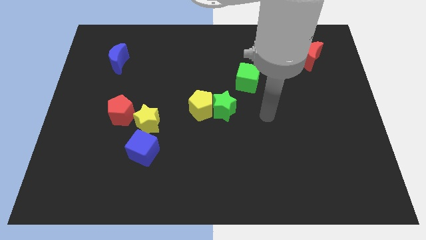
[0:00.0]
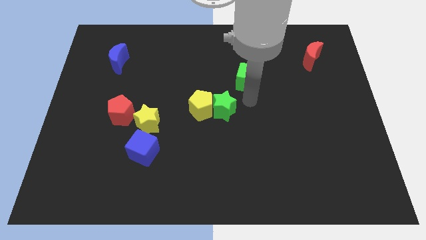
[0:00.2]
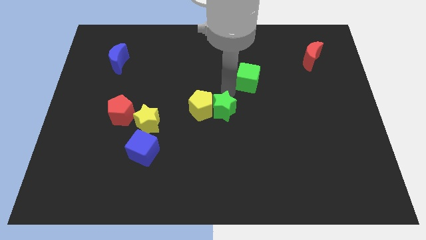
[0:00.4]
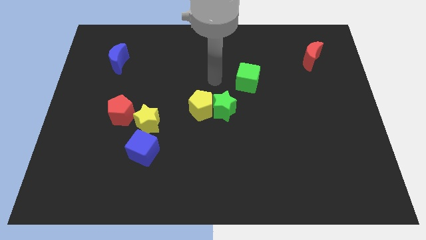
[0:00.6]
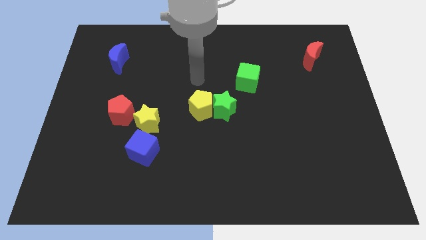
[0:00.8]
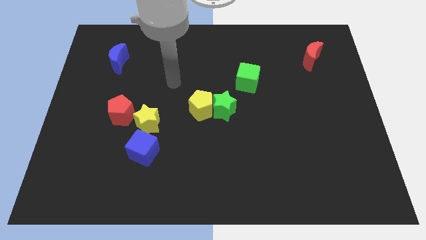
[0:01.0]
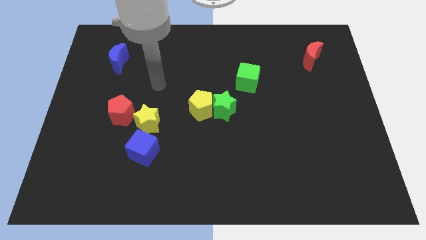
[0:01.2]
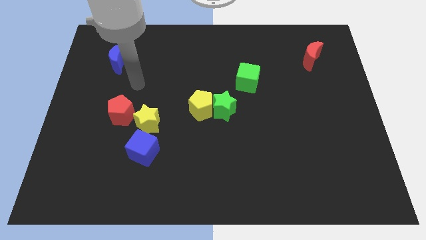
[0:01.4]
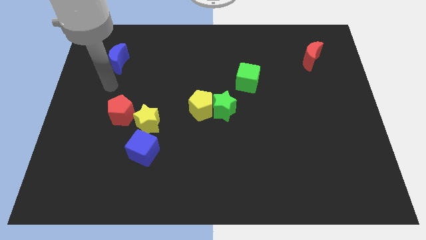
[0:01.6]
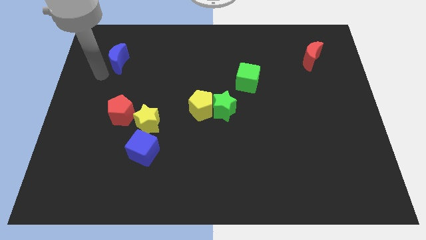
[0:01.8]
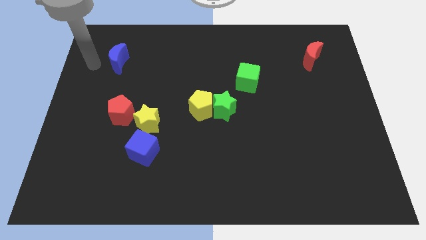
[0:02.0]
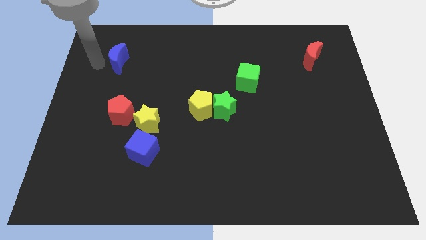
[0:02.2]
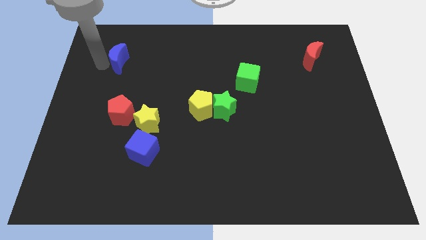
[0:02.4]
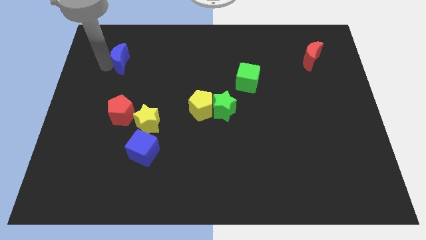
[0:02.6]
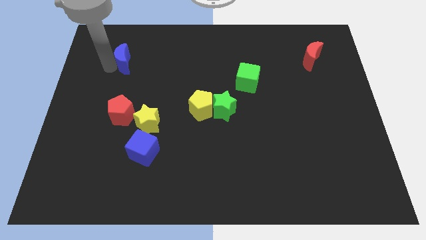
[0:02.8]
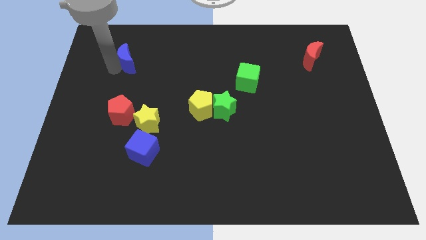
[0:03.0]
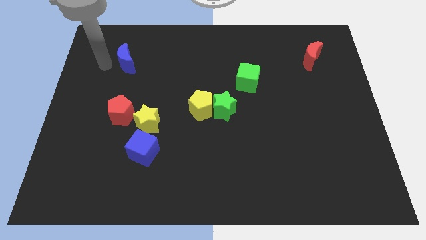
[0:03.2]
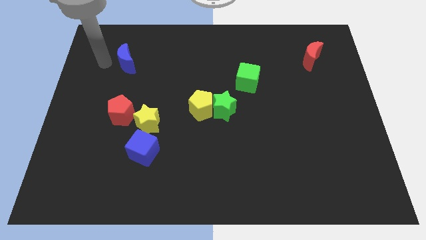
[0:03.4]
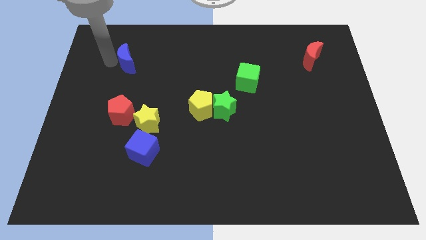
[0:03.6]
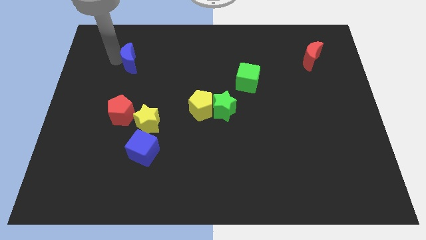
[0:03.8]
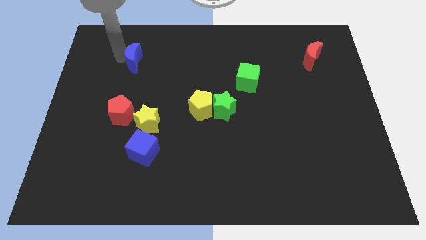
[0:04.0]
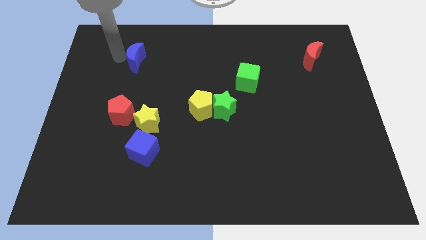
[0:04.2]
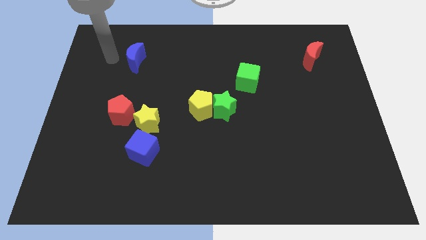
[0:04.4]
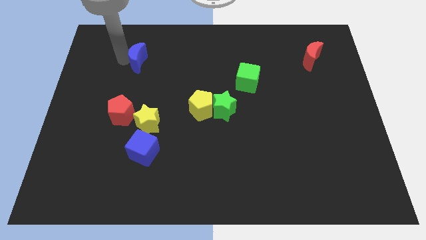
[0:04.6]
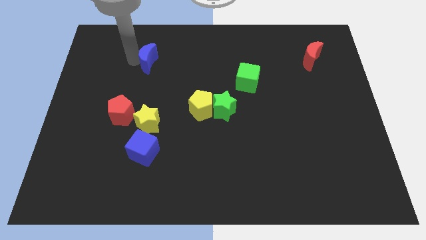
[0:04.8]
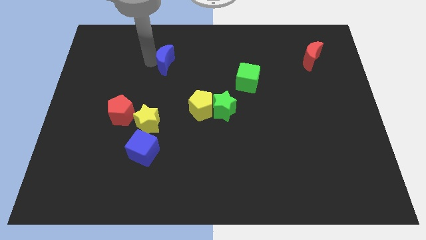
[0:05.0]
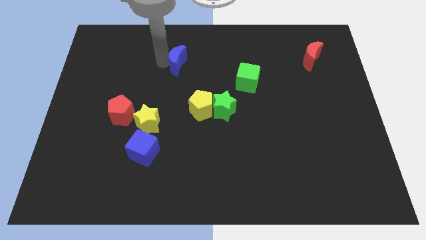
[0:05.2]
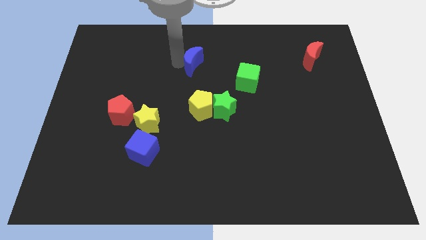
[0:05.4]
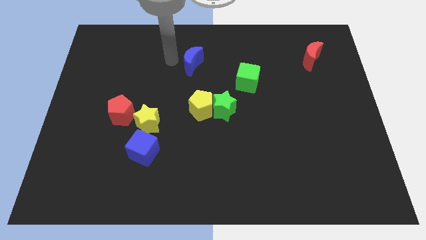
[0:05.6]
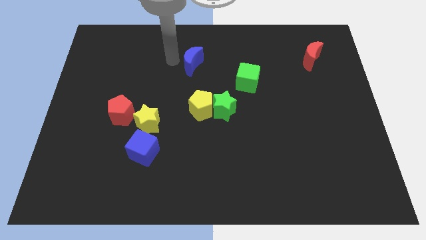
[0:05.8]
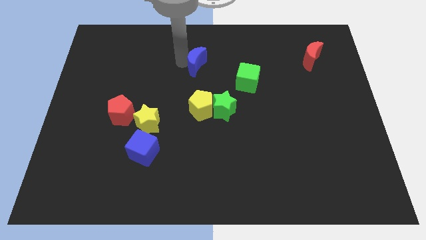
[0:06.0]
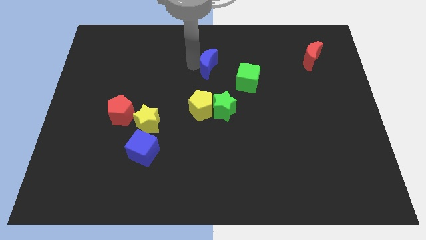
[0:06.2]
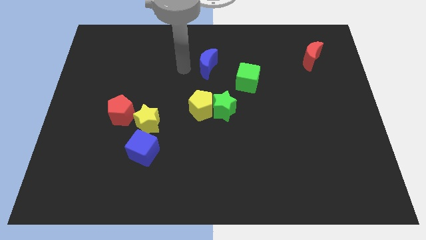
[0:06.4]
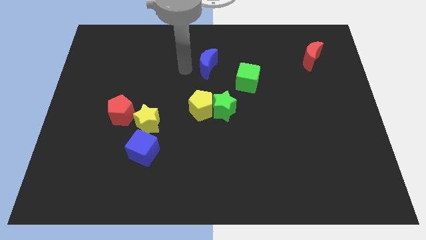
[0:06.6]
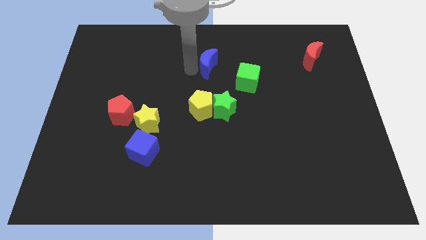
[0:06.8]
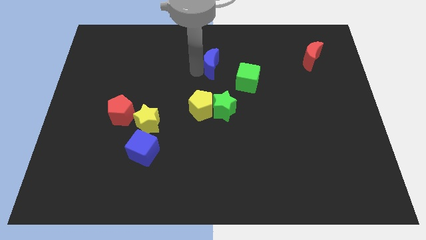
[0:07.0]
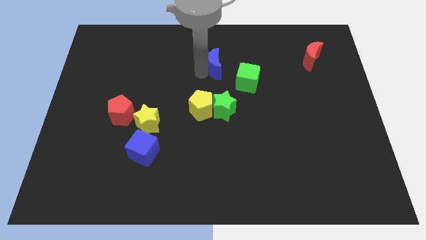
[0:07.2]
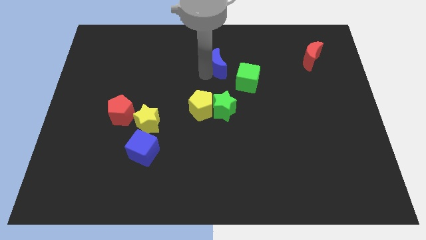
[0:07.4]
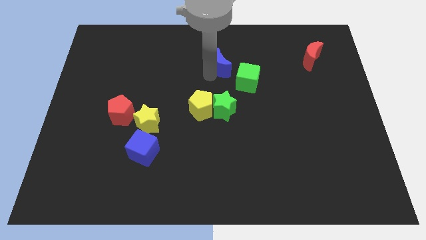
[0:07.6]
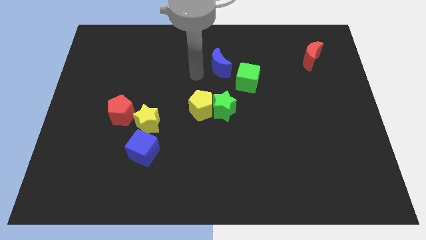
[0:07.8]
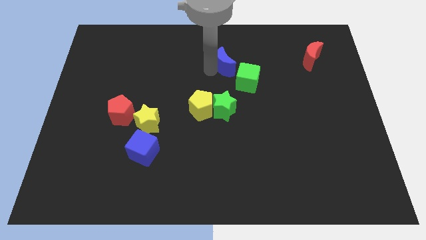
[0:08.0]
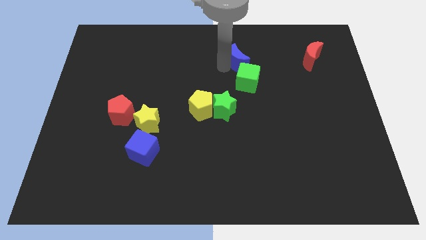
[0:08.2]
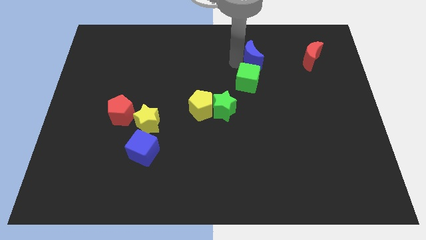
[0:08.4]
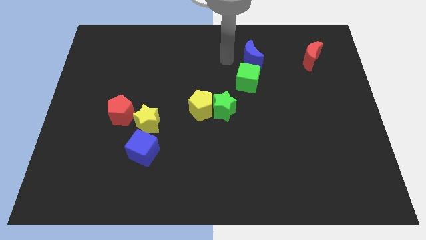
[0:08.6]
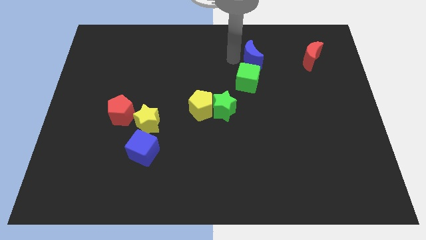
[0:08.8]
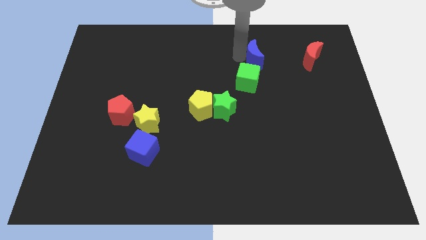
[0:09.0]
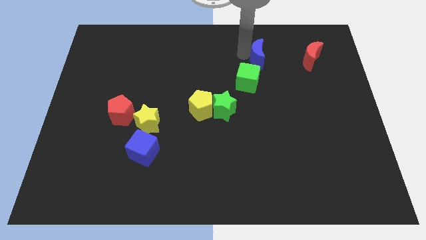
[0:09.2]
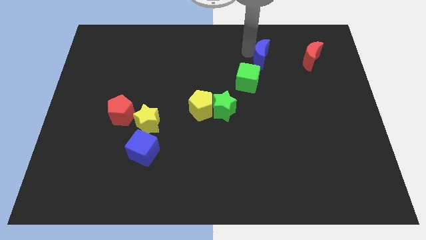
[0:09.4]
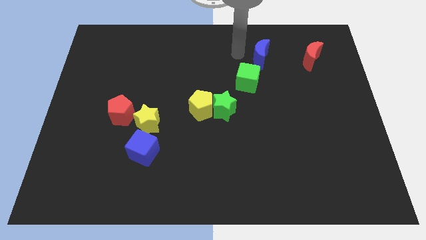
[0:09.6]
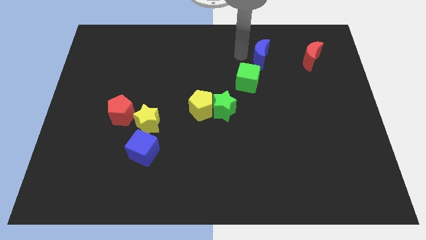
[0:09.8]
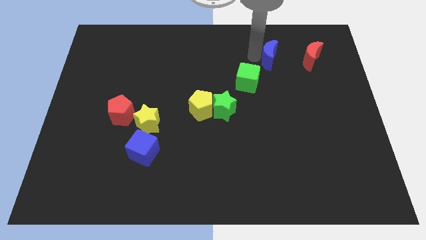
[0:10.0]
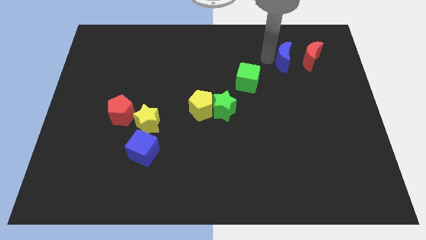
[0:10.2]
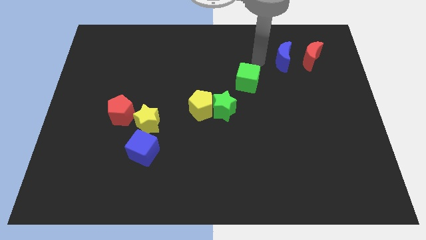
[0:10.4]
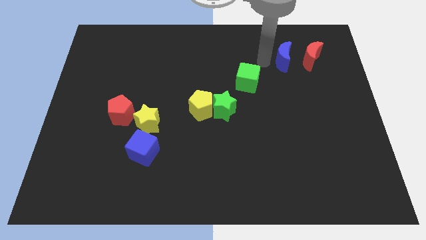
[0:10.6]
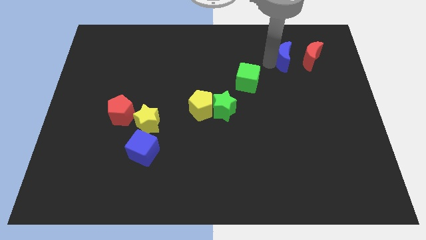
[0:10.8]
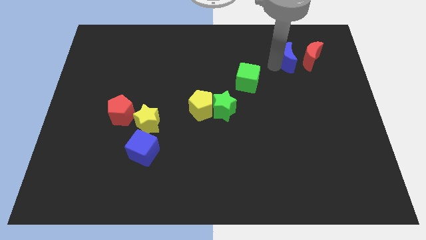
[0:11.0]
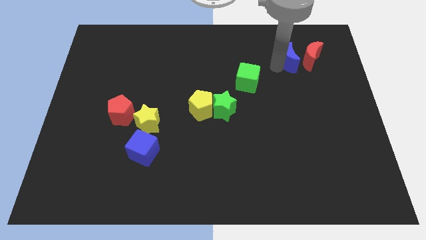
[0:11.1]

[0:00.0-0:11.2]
slide the blue moon next to the red moon

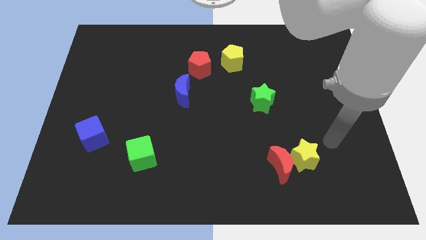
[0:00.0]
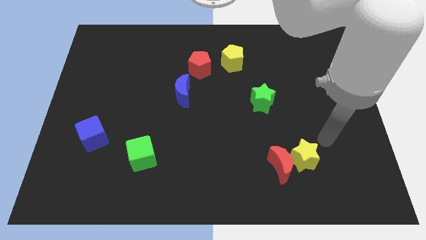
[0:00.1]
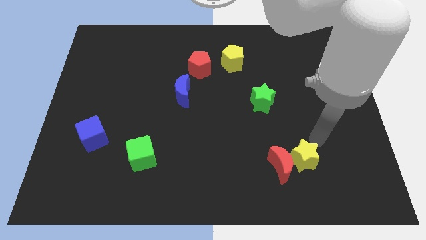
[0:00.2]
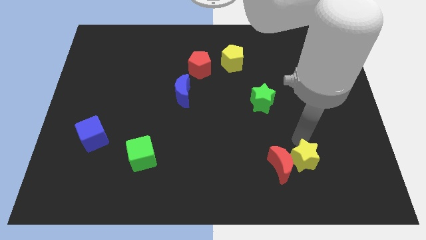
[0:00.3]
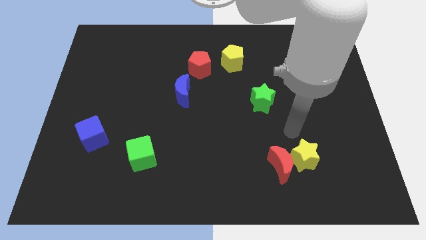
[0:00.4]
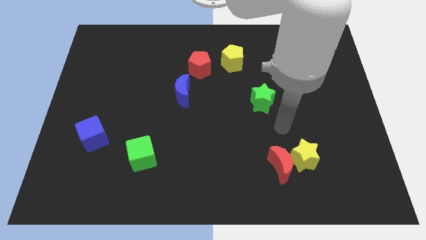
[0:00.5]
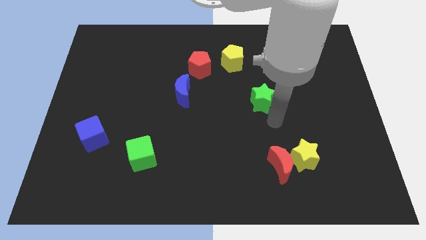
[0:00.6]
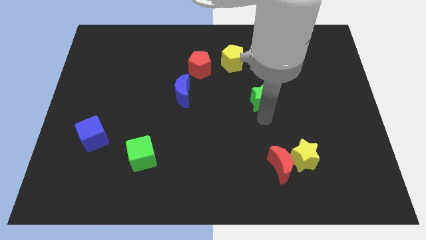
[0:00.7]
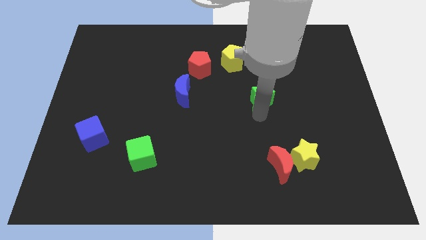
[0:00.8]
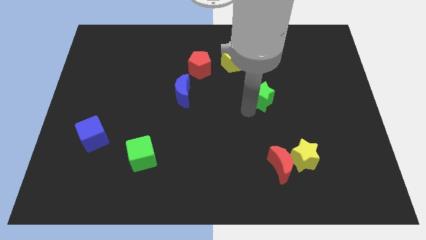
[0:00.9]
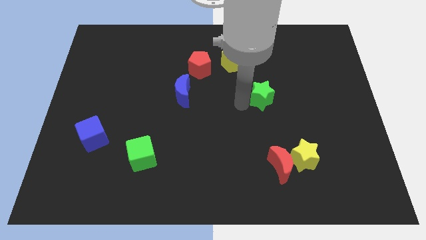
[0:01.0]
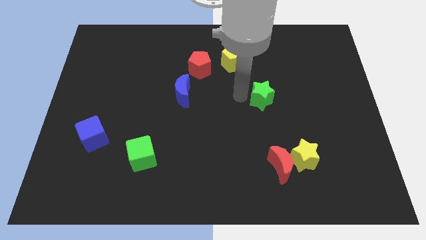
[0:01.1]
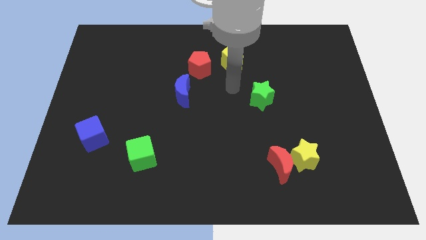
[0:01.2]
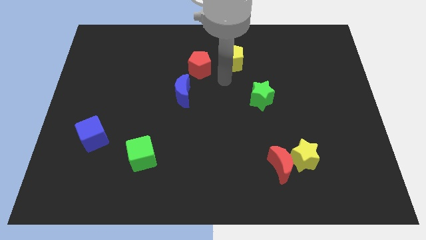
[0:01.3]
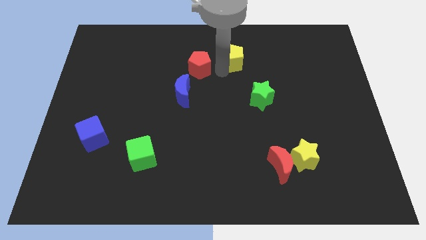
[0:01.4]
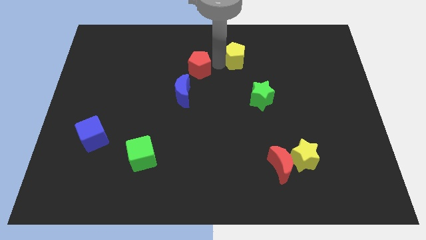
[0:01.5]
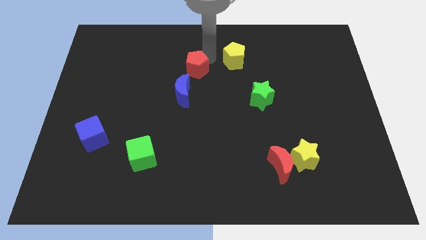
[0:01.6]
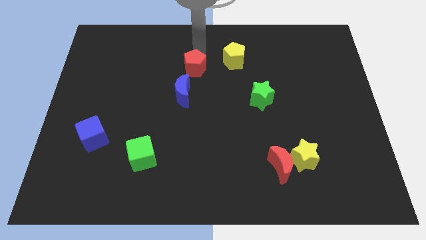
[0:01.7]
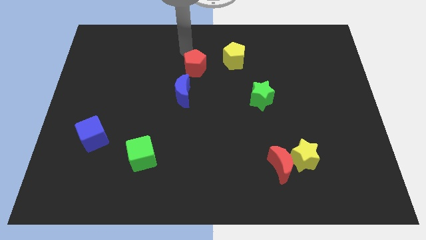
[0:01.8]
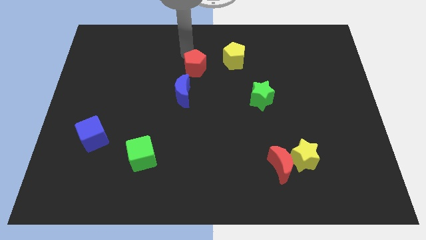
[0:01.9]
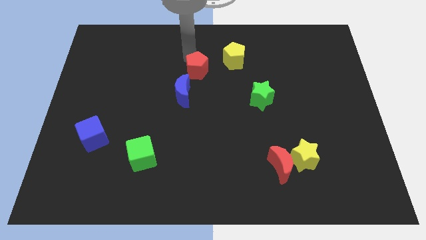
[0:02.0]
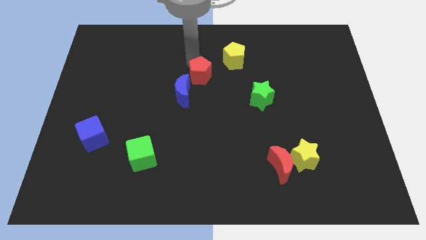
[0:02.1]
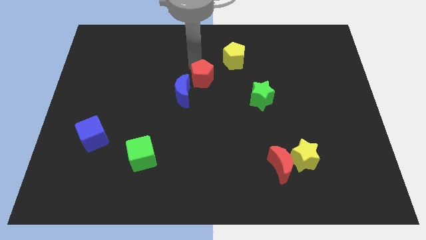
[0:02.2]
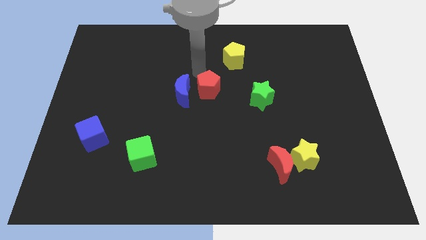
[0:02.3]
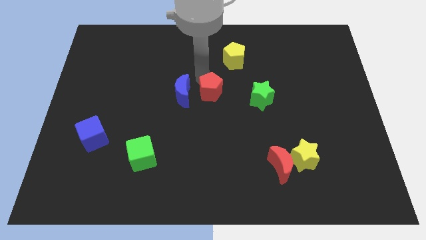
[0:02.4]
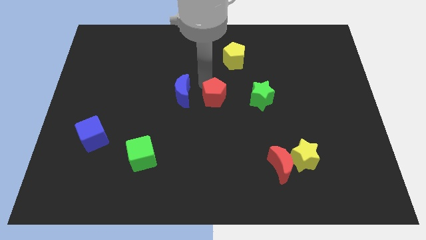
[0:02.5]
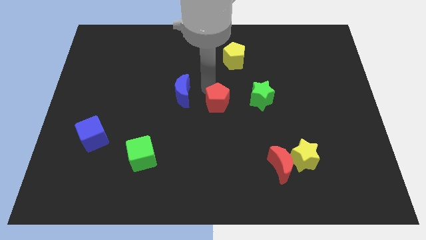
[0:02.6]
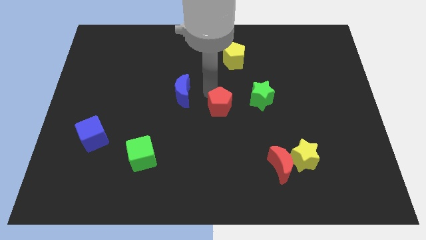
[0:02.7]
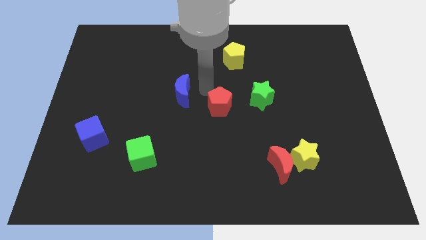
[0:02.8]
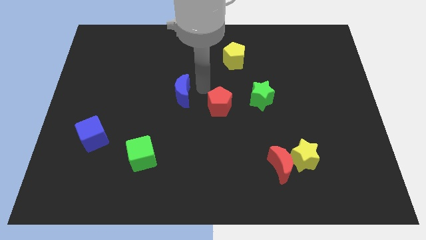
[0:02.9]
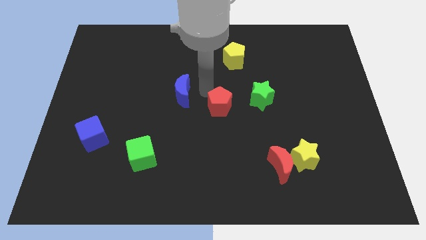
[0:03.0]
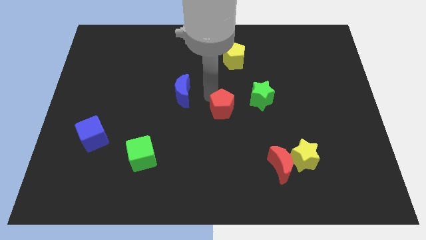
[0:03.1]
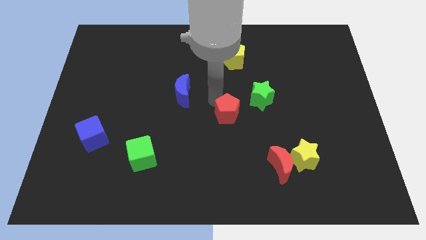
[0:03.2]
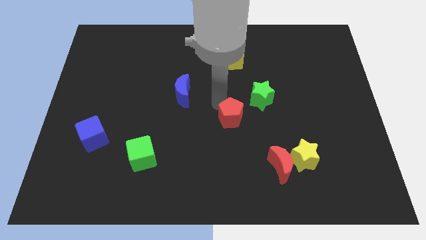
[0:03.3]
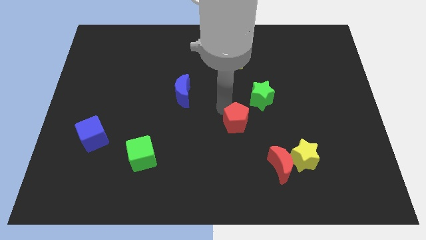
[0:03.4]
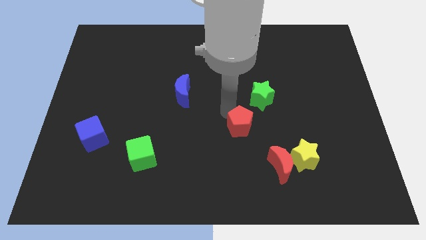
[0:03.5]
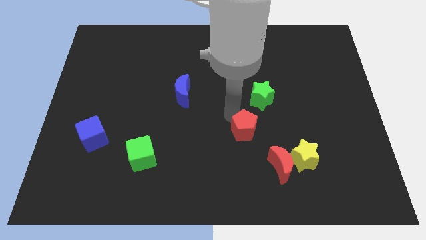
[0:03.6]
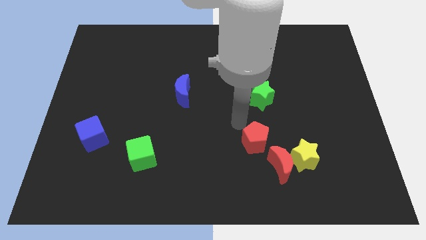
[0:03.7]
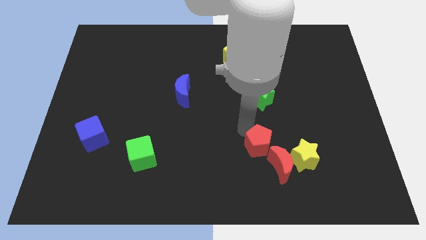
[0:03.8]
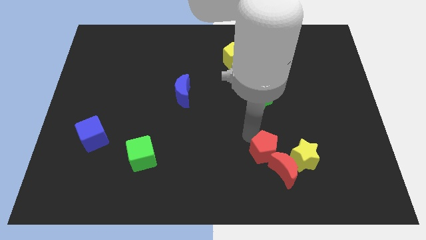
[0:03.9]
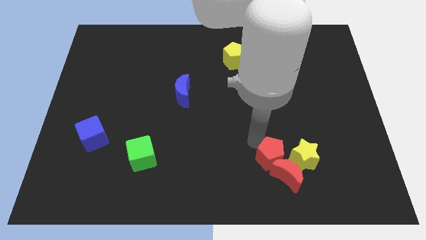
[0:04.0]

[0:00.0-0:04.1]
slide the red pentagon towards the red moon
